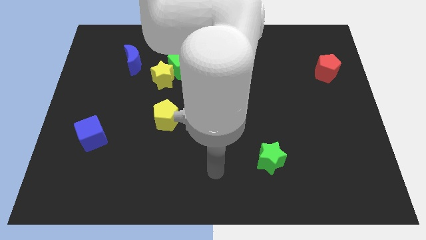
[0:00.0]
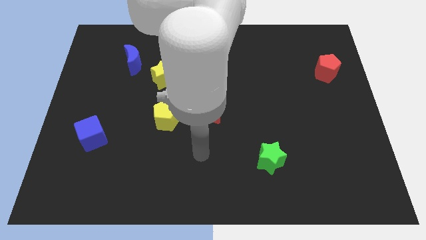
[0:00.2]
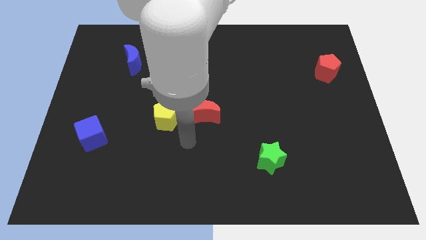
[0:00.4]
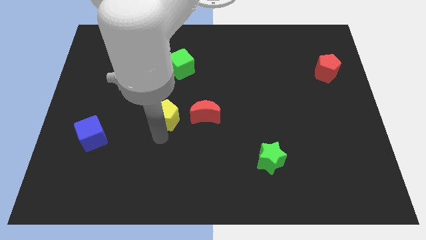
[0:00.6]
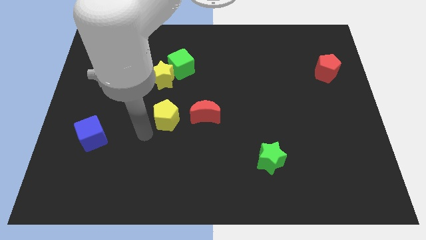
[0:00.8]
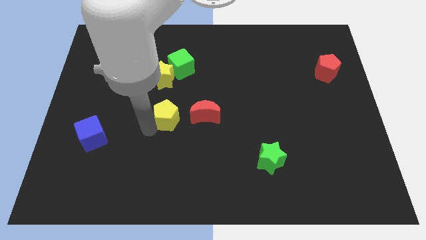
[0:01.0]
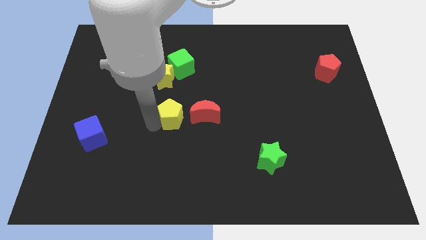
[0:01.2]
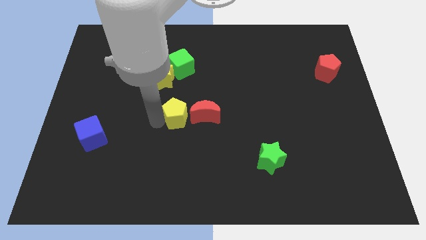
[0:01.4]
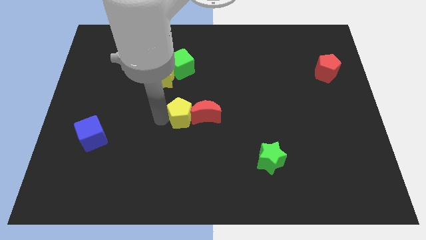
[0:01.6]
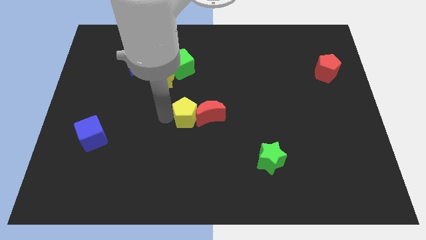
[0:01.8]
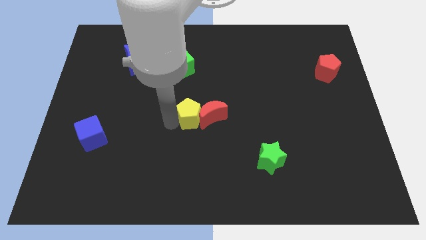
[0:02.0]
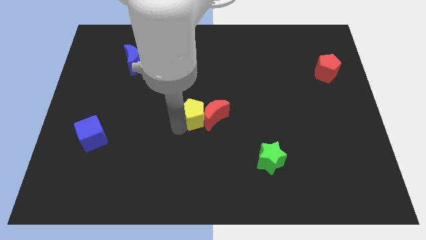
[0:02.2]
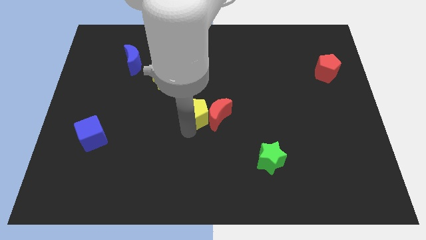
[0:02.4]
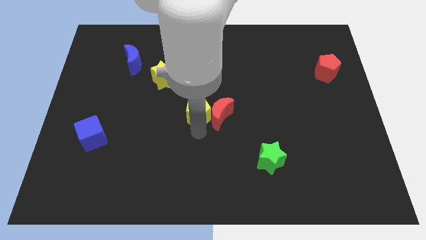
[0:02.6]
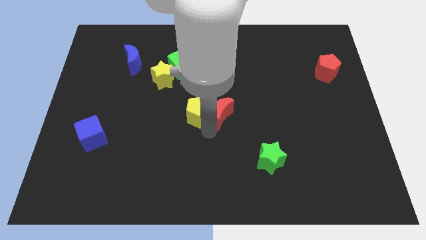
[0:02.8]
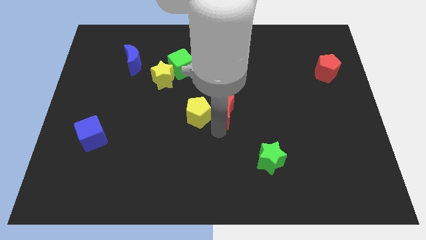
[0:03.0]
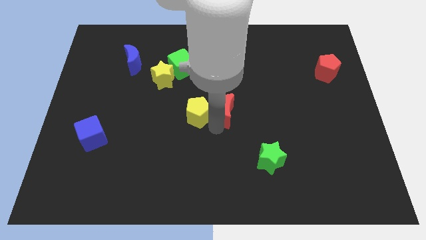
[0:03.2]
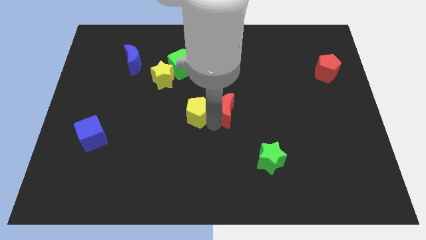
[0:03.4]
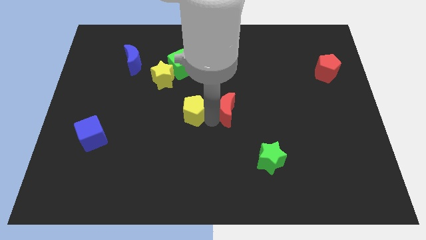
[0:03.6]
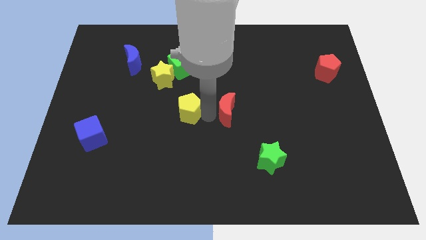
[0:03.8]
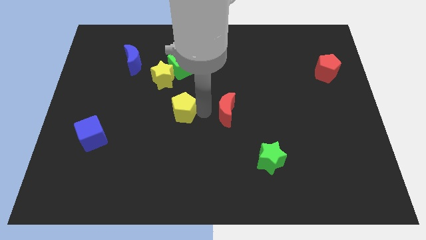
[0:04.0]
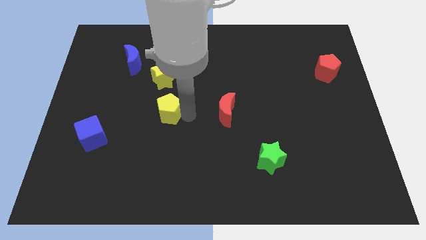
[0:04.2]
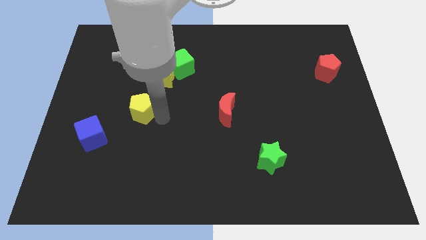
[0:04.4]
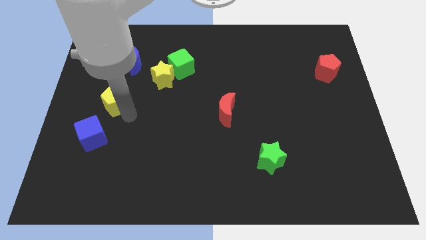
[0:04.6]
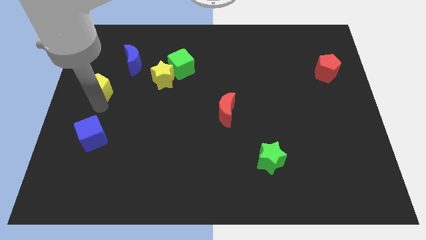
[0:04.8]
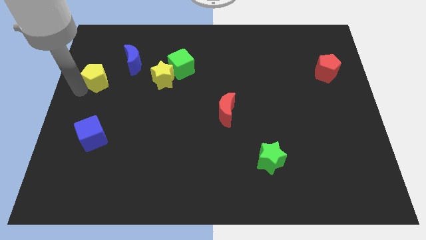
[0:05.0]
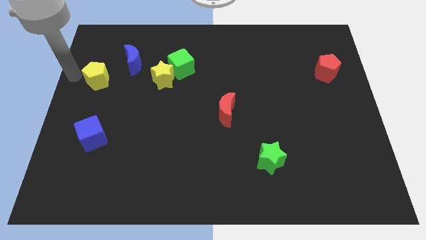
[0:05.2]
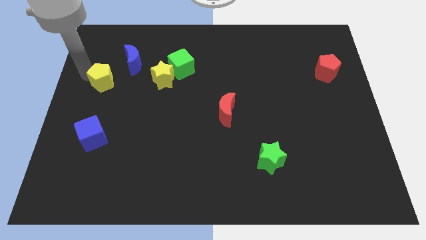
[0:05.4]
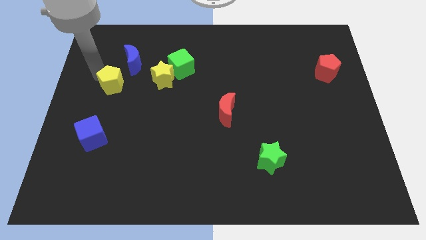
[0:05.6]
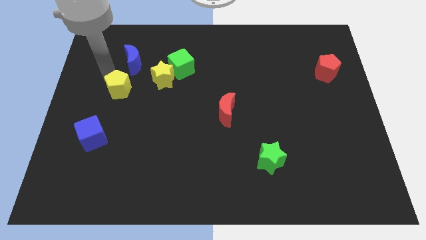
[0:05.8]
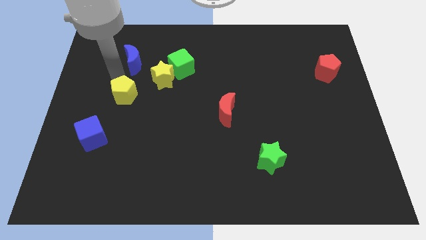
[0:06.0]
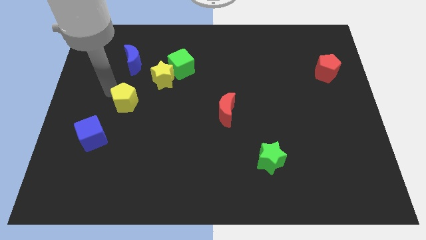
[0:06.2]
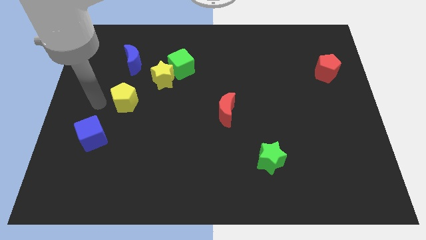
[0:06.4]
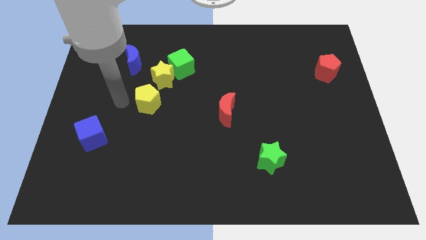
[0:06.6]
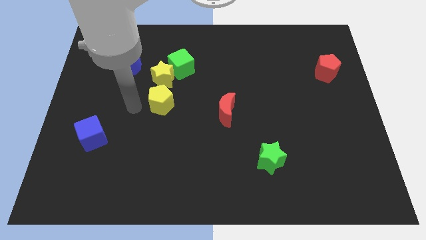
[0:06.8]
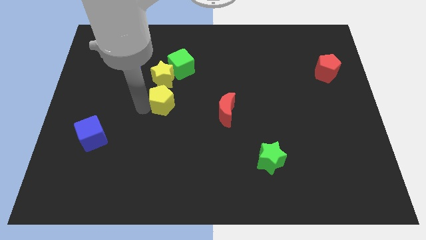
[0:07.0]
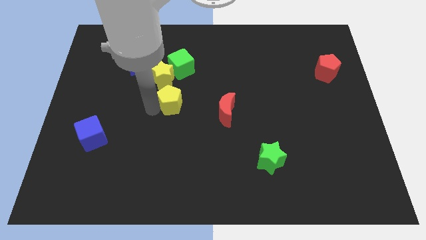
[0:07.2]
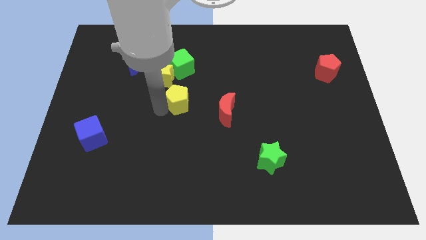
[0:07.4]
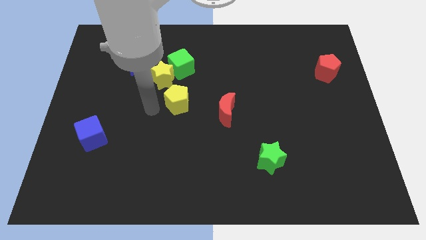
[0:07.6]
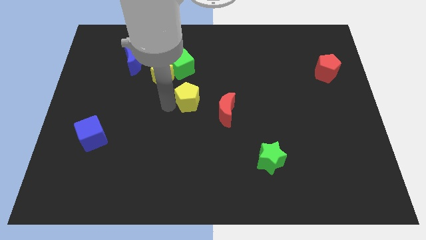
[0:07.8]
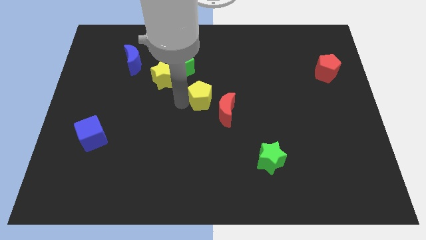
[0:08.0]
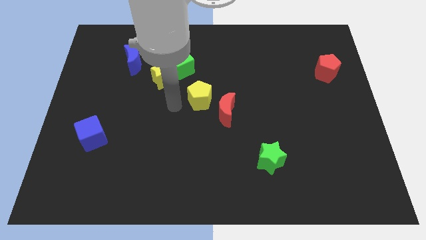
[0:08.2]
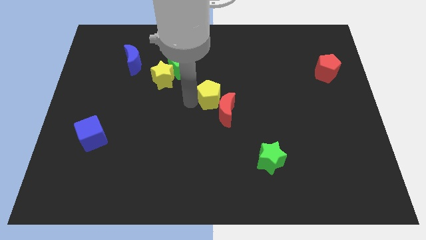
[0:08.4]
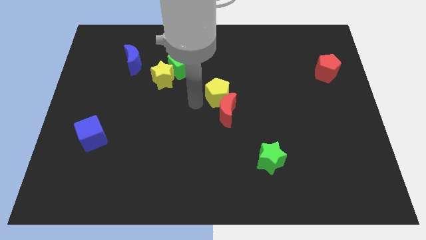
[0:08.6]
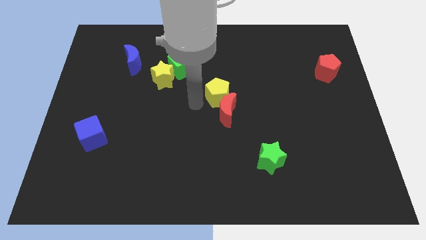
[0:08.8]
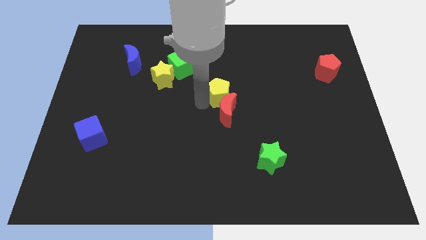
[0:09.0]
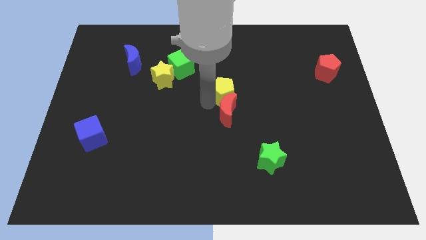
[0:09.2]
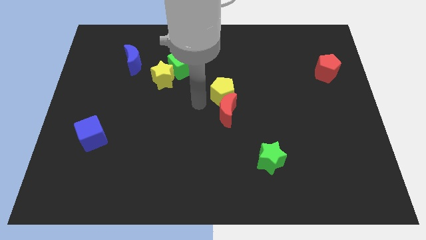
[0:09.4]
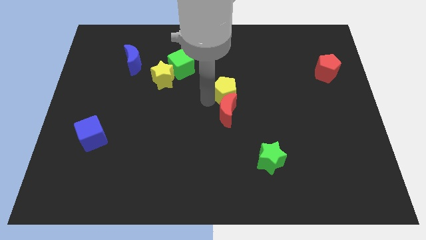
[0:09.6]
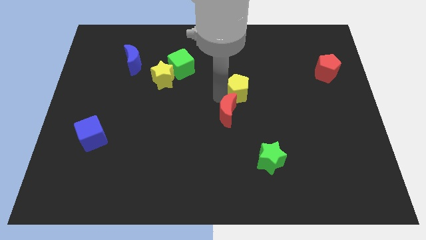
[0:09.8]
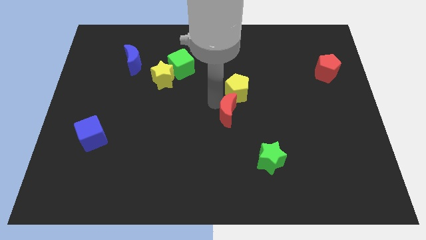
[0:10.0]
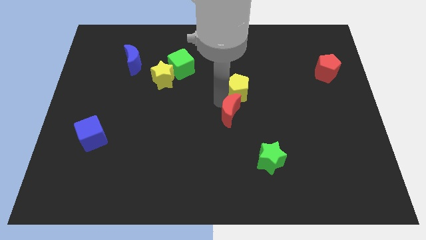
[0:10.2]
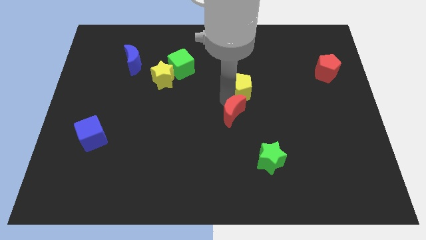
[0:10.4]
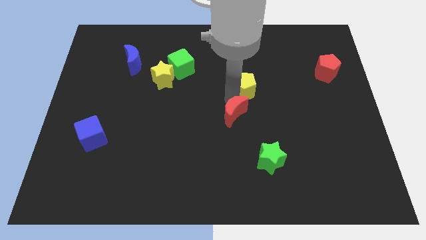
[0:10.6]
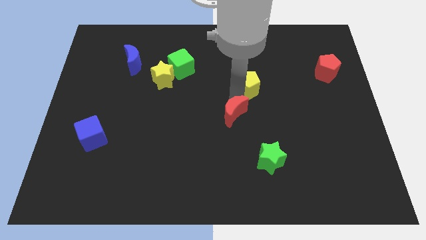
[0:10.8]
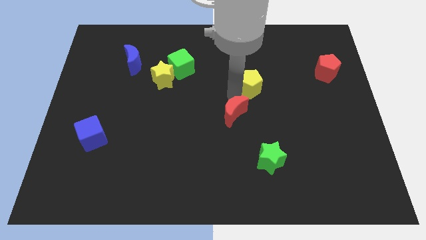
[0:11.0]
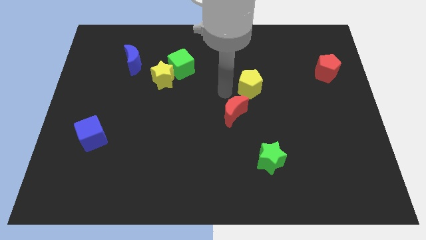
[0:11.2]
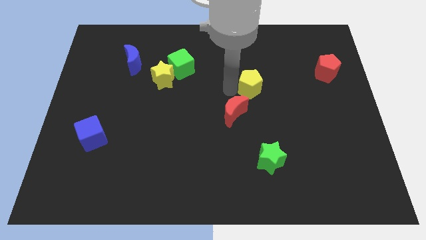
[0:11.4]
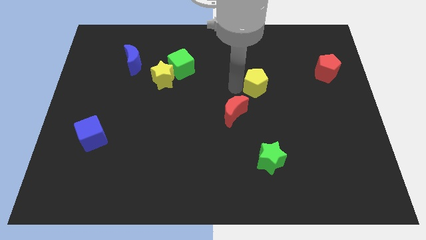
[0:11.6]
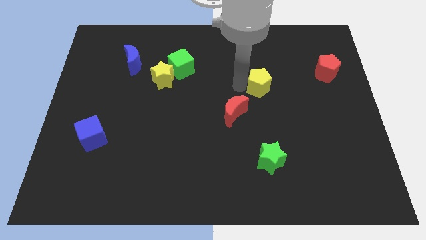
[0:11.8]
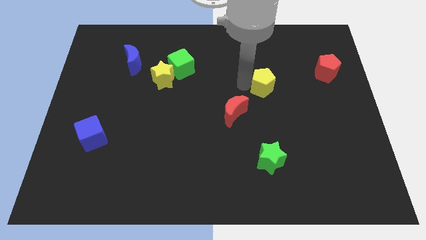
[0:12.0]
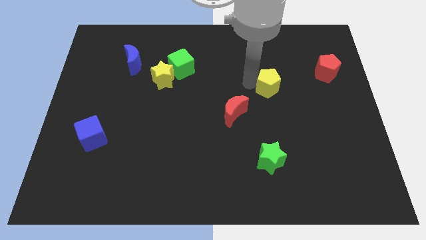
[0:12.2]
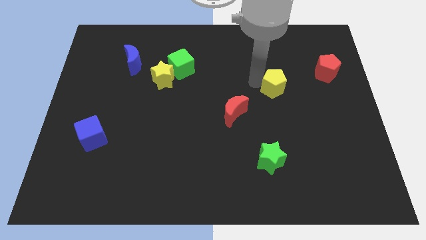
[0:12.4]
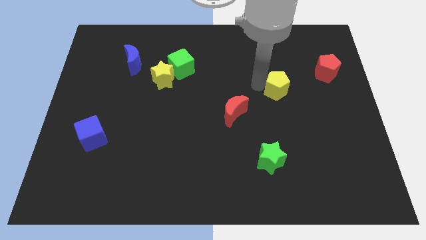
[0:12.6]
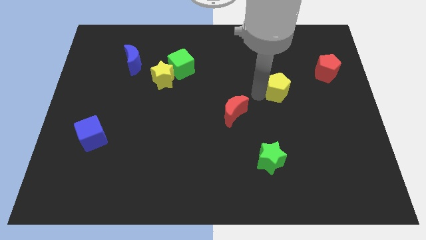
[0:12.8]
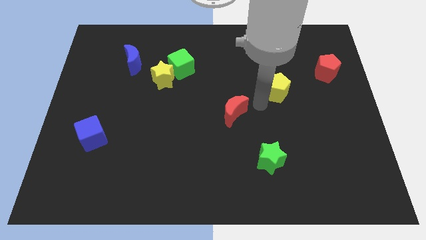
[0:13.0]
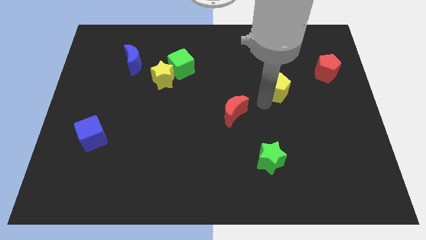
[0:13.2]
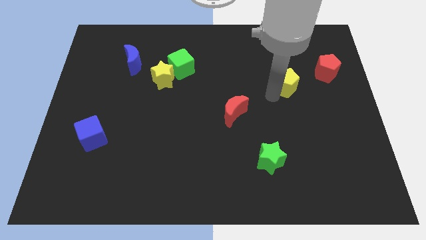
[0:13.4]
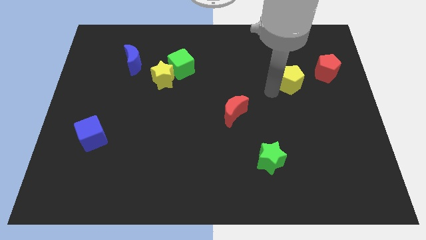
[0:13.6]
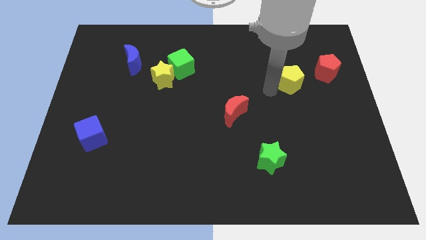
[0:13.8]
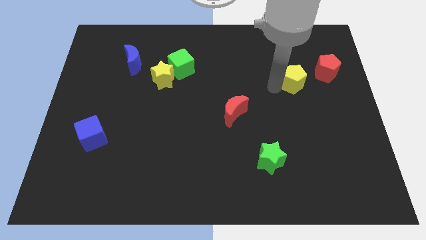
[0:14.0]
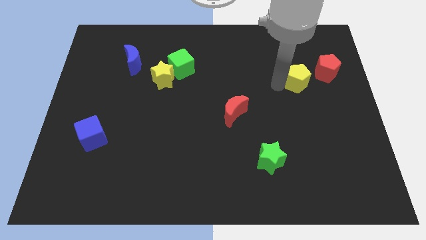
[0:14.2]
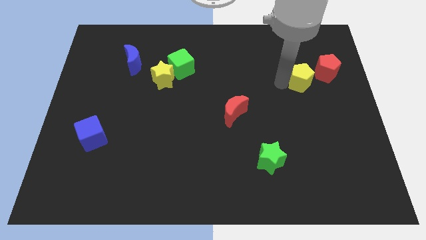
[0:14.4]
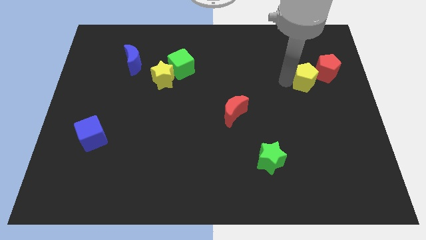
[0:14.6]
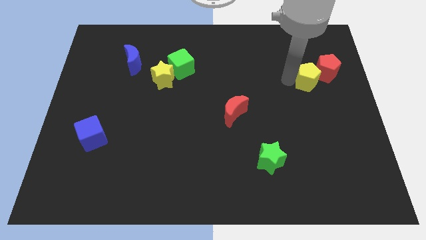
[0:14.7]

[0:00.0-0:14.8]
push the yellow pentagon to the red pentagon
